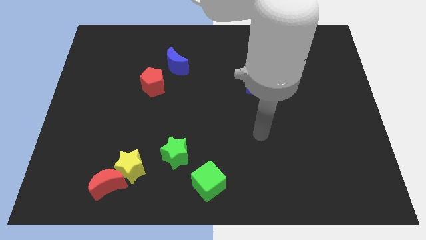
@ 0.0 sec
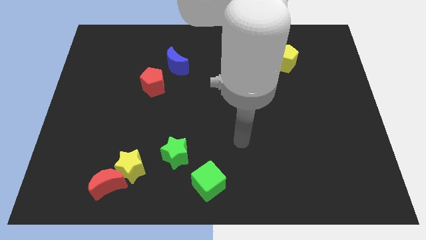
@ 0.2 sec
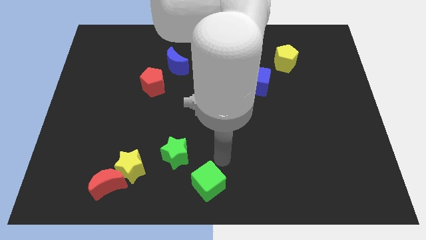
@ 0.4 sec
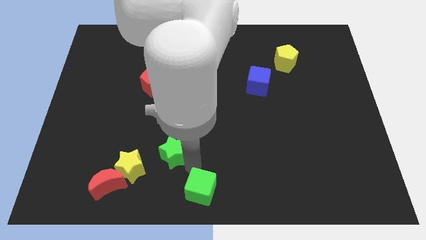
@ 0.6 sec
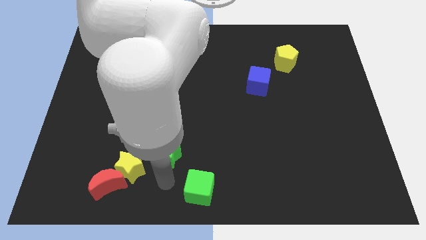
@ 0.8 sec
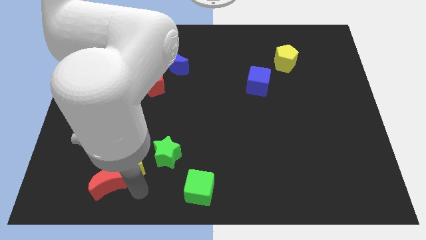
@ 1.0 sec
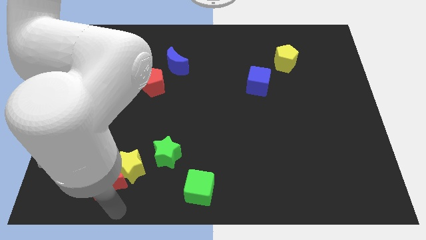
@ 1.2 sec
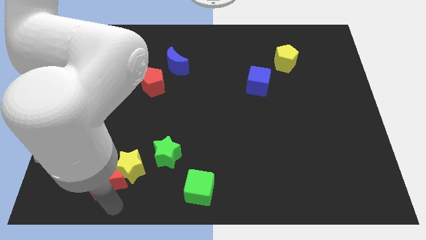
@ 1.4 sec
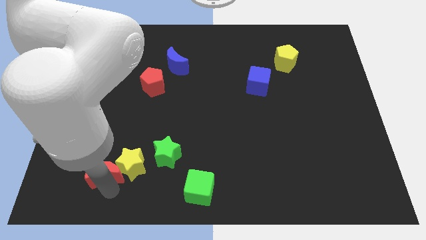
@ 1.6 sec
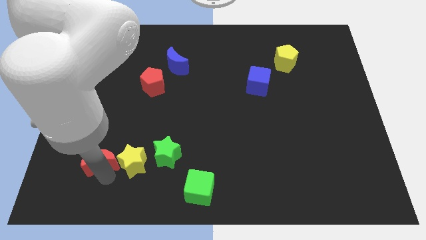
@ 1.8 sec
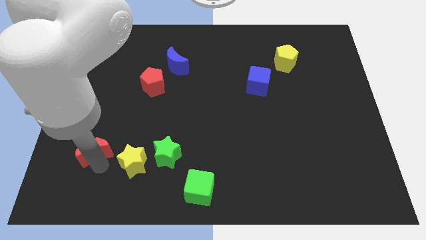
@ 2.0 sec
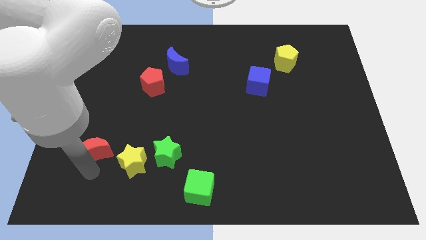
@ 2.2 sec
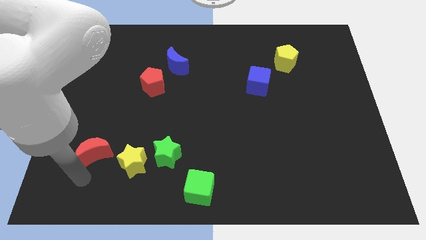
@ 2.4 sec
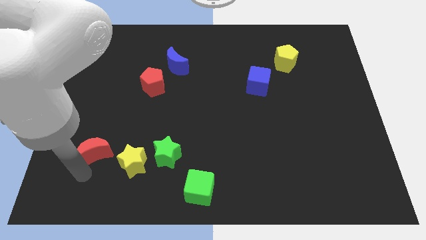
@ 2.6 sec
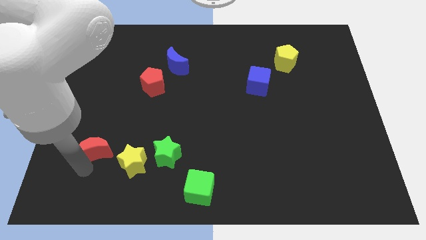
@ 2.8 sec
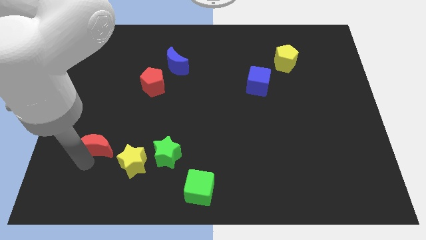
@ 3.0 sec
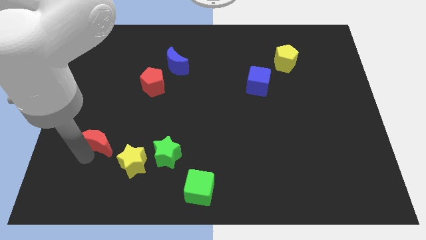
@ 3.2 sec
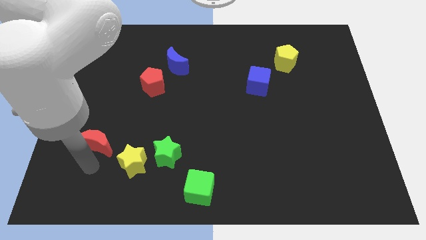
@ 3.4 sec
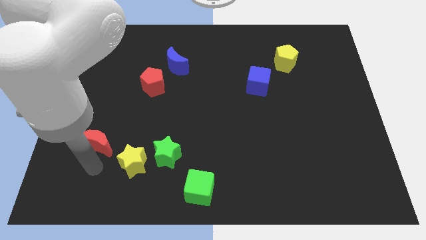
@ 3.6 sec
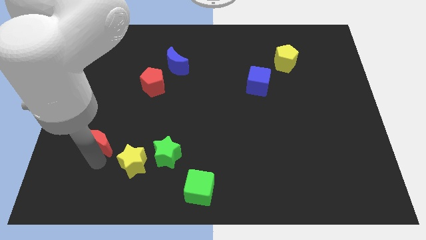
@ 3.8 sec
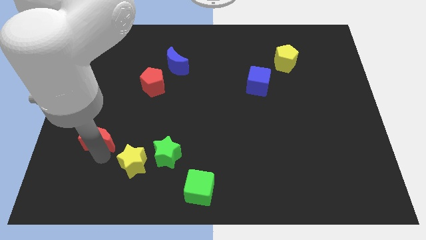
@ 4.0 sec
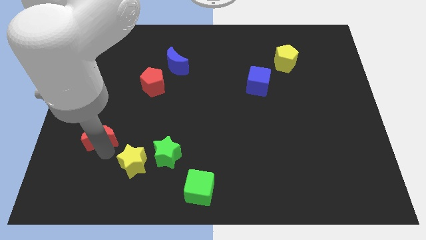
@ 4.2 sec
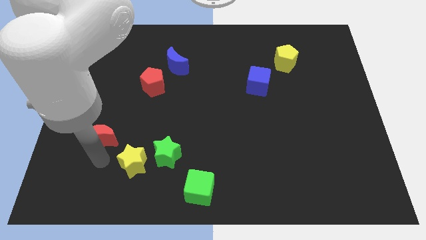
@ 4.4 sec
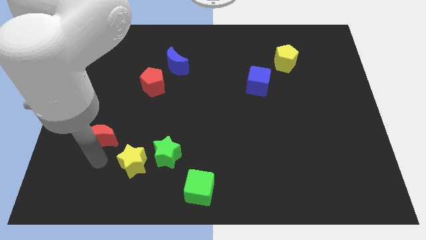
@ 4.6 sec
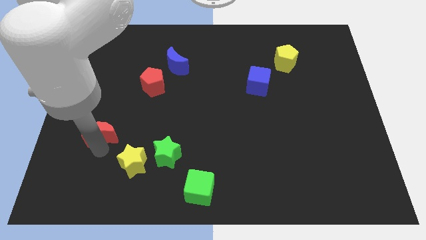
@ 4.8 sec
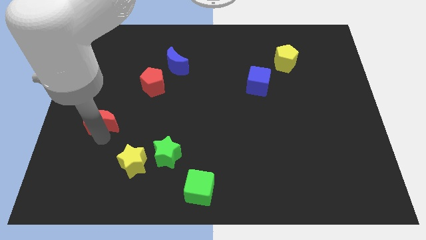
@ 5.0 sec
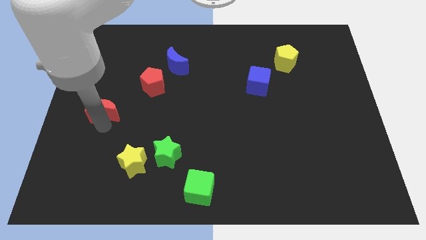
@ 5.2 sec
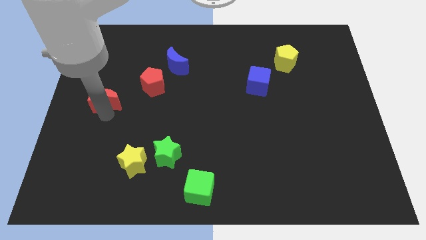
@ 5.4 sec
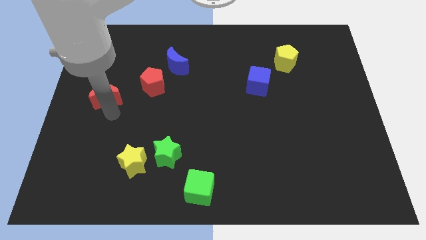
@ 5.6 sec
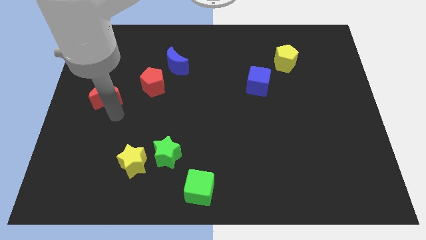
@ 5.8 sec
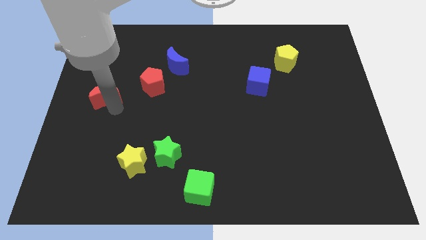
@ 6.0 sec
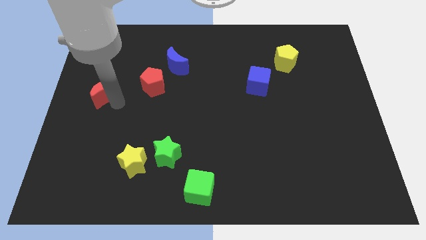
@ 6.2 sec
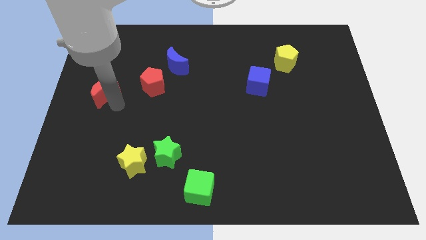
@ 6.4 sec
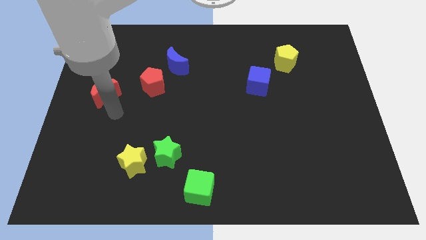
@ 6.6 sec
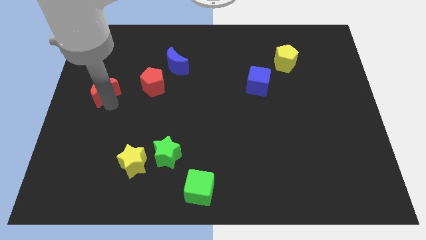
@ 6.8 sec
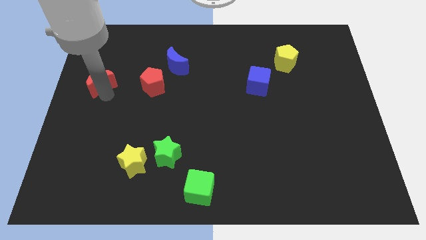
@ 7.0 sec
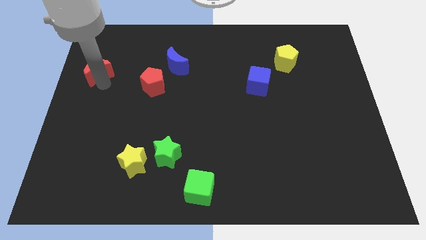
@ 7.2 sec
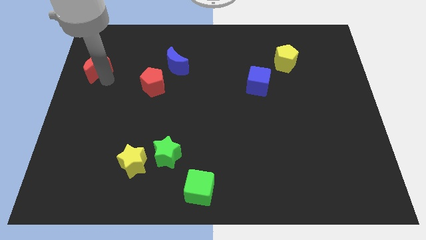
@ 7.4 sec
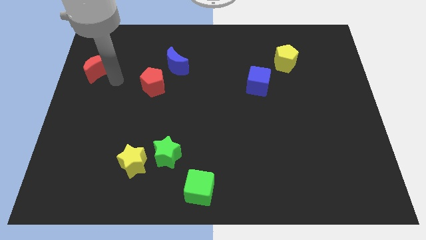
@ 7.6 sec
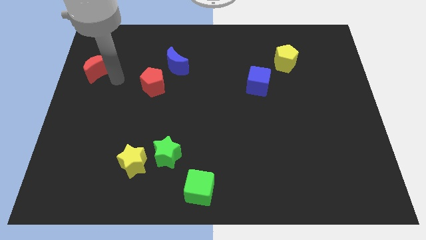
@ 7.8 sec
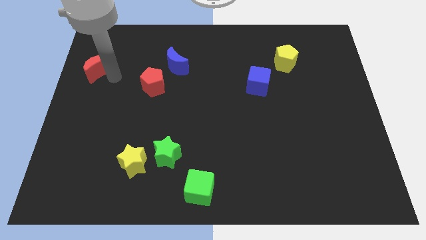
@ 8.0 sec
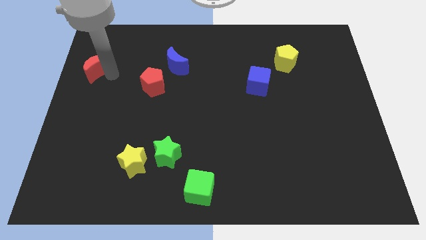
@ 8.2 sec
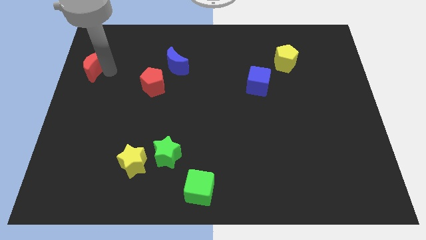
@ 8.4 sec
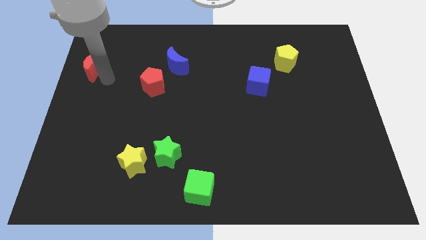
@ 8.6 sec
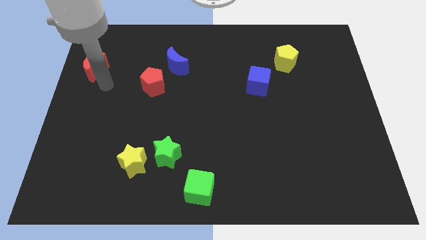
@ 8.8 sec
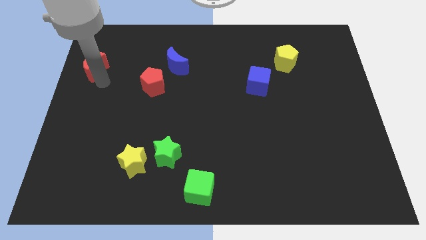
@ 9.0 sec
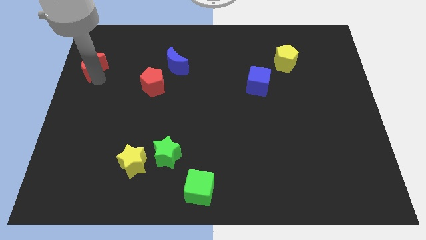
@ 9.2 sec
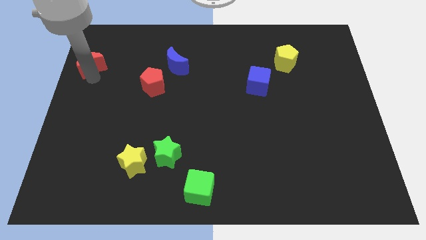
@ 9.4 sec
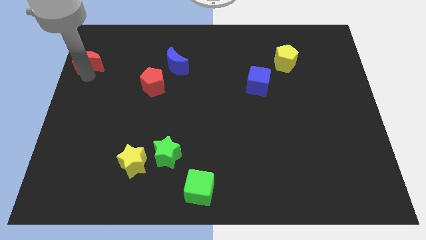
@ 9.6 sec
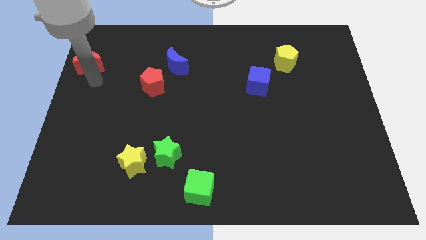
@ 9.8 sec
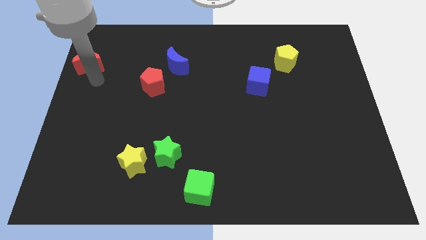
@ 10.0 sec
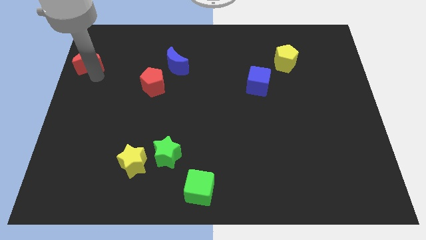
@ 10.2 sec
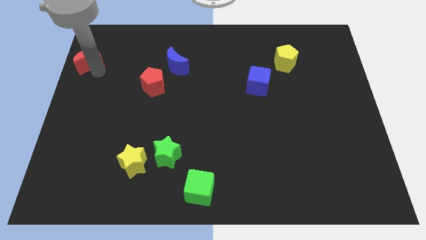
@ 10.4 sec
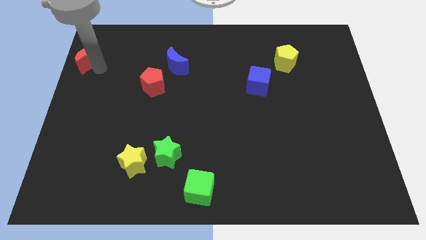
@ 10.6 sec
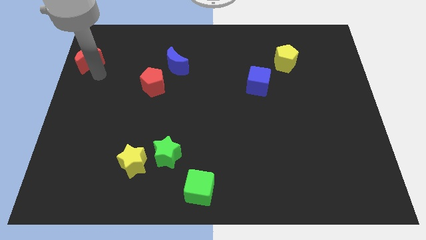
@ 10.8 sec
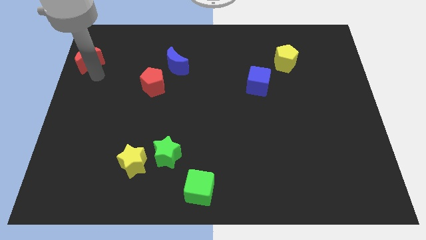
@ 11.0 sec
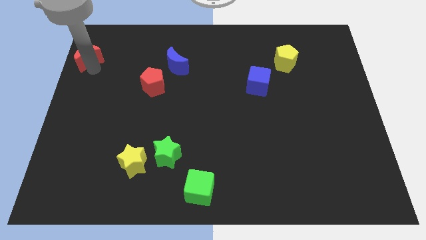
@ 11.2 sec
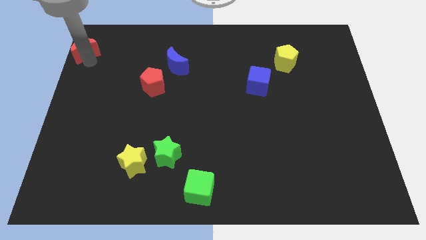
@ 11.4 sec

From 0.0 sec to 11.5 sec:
move the red moon to the top left of the board
